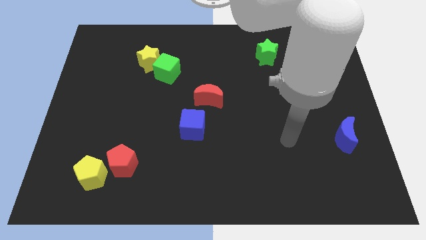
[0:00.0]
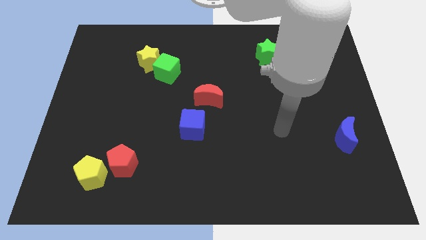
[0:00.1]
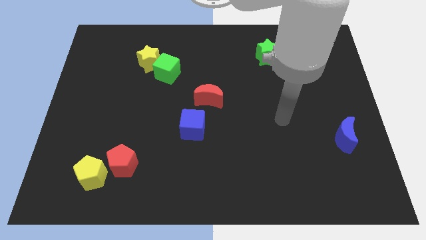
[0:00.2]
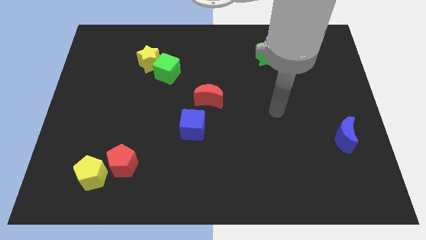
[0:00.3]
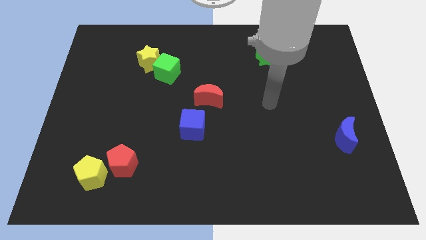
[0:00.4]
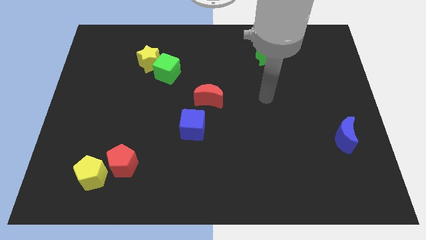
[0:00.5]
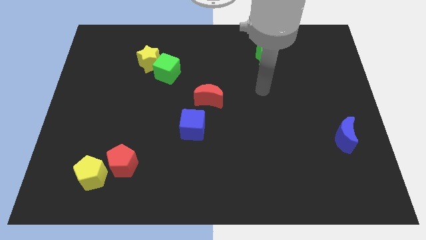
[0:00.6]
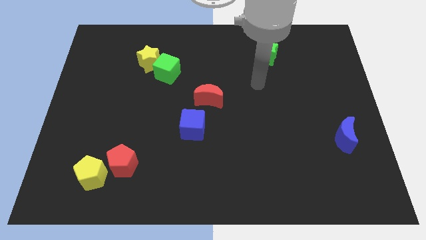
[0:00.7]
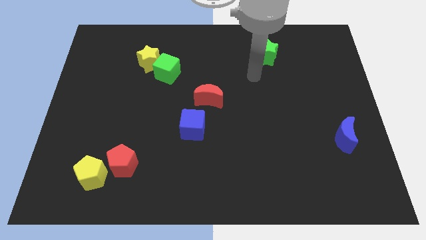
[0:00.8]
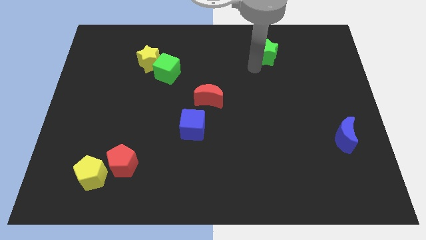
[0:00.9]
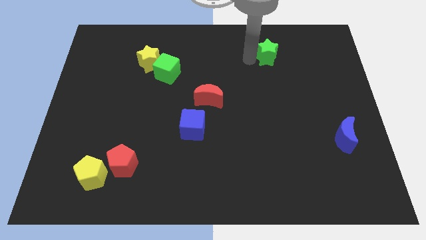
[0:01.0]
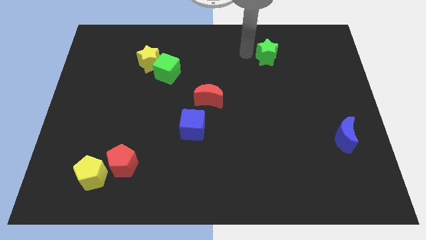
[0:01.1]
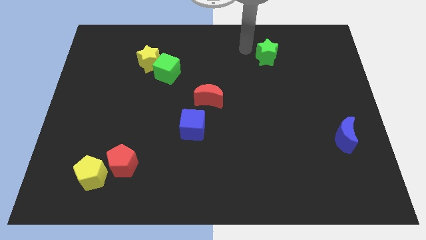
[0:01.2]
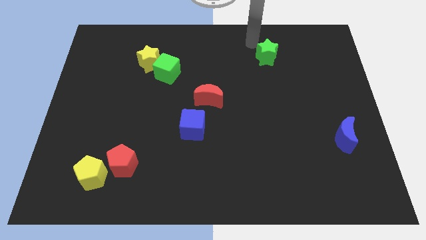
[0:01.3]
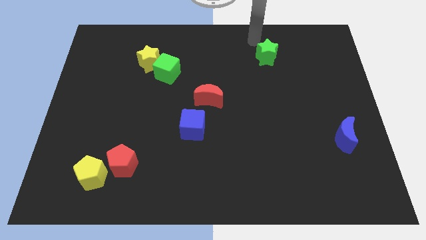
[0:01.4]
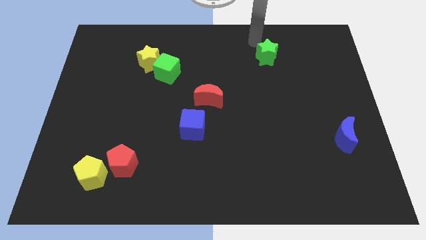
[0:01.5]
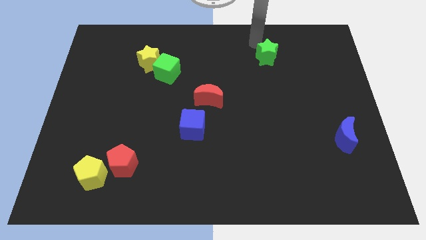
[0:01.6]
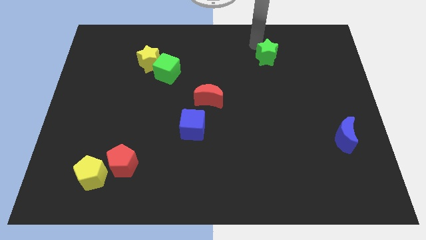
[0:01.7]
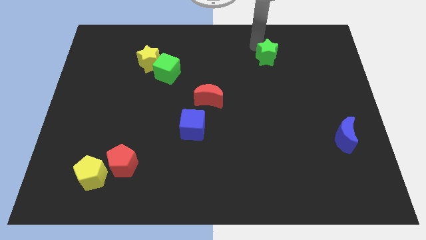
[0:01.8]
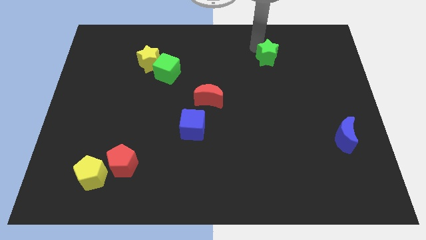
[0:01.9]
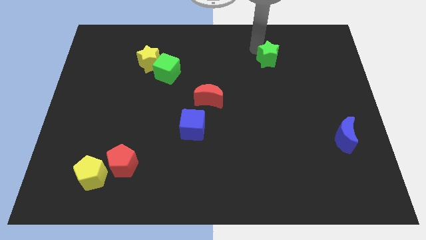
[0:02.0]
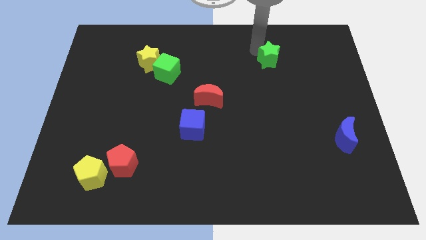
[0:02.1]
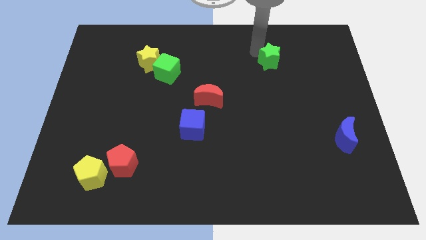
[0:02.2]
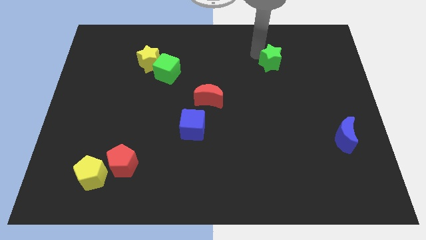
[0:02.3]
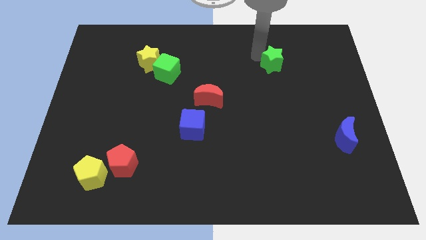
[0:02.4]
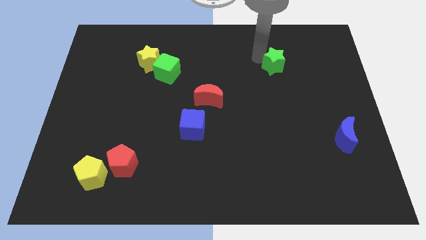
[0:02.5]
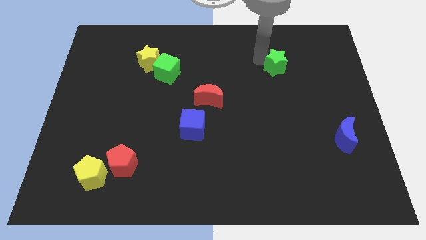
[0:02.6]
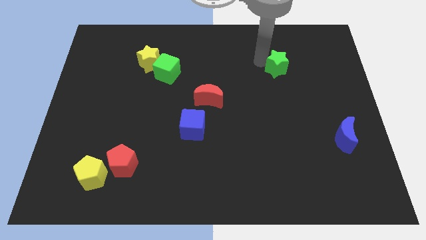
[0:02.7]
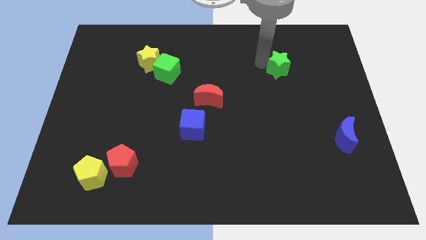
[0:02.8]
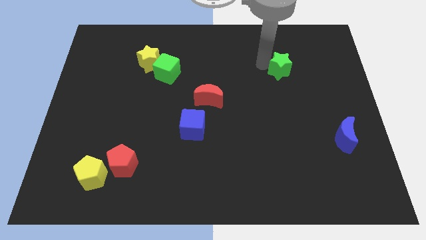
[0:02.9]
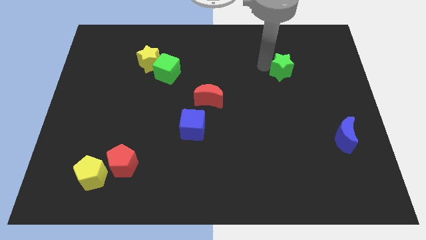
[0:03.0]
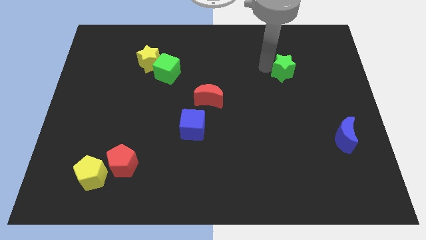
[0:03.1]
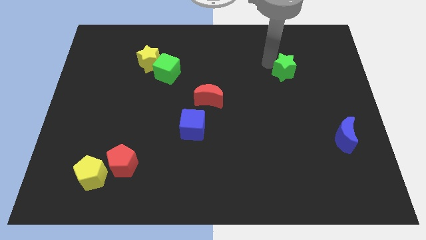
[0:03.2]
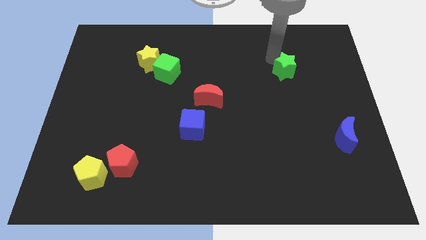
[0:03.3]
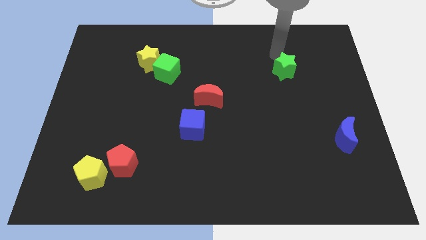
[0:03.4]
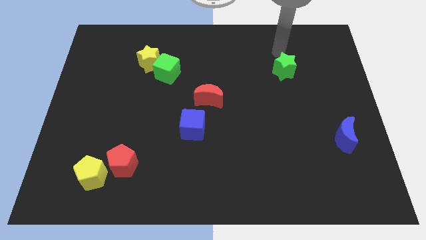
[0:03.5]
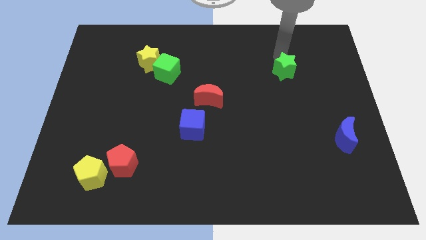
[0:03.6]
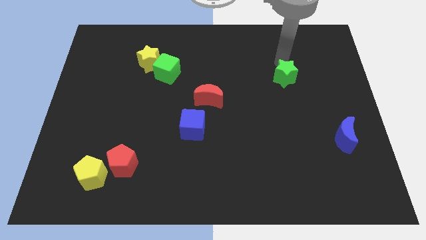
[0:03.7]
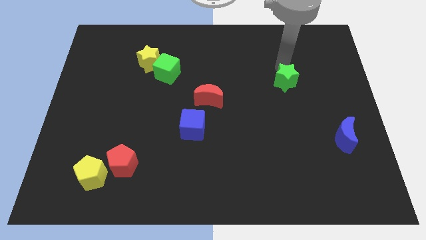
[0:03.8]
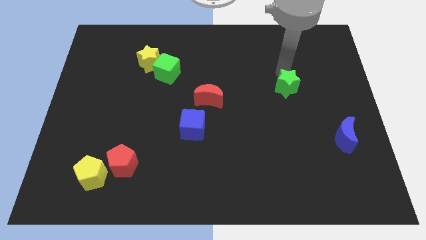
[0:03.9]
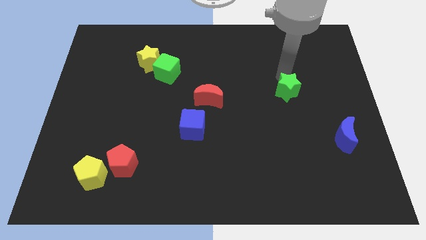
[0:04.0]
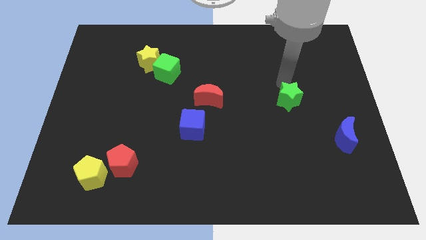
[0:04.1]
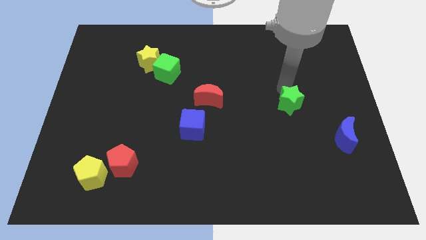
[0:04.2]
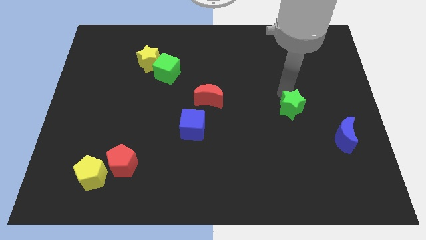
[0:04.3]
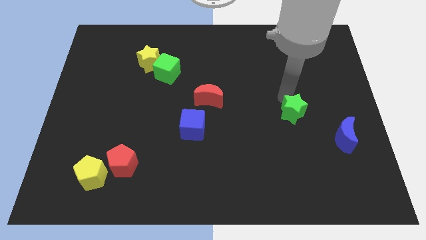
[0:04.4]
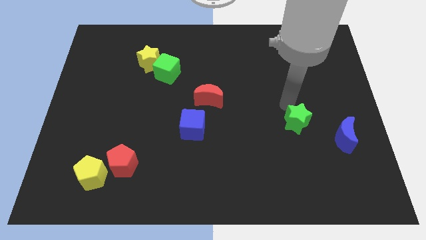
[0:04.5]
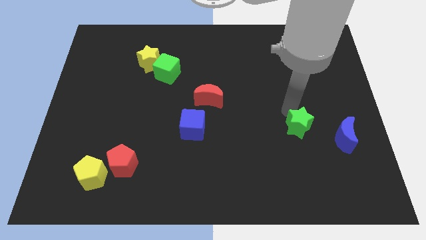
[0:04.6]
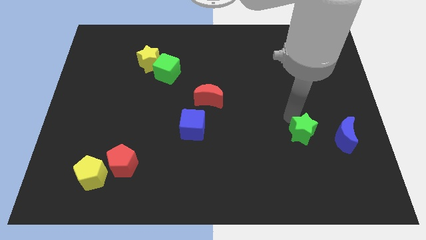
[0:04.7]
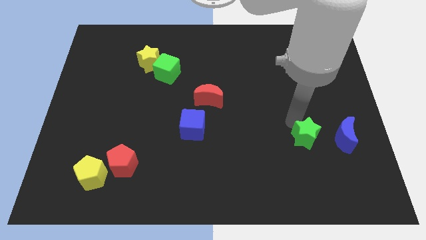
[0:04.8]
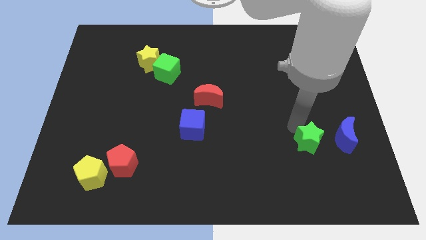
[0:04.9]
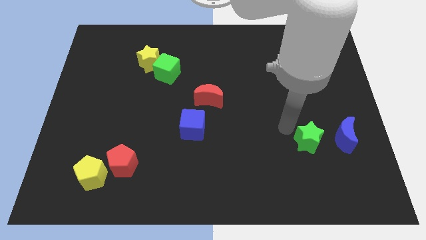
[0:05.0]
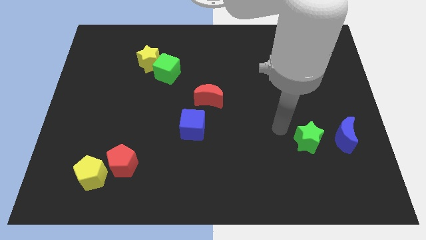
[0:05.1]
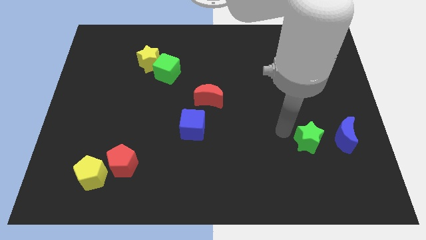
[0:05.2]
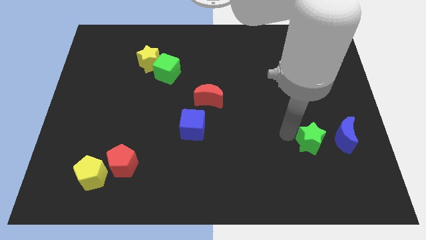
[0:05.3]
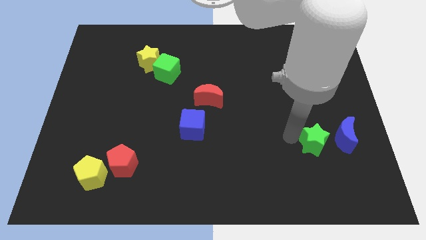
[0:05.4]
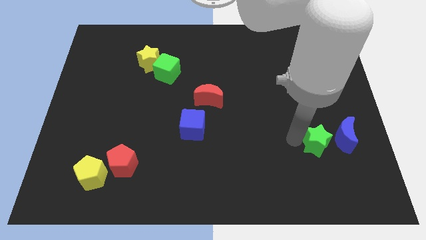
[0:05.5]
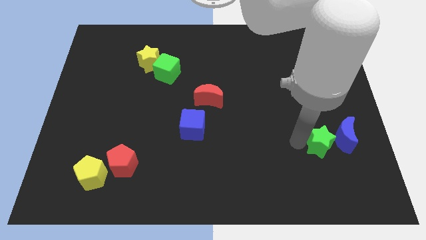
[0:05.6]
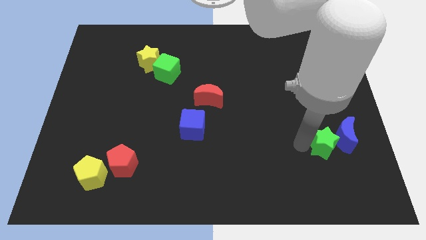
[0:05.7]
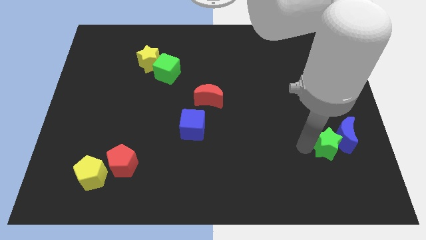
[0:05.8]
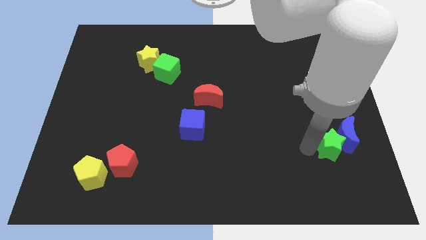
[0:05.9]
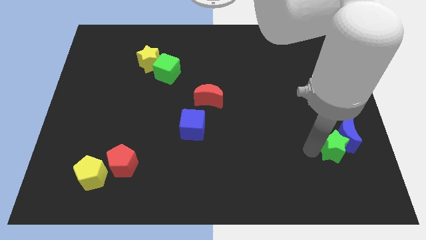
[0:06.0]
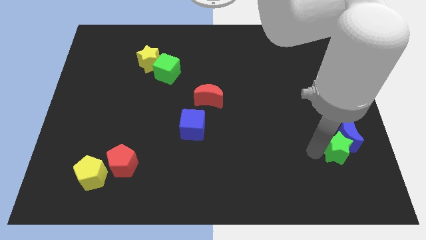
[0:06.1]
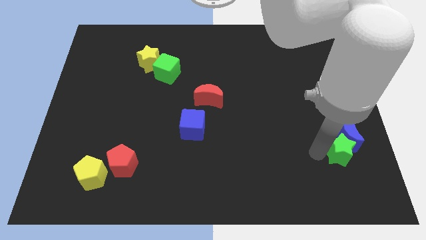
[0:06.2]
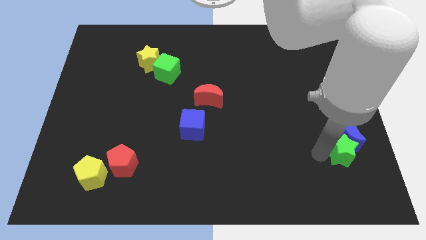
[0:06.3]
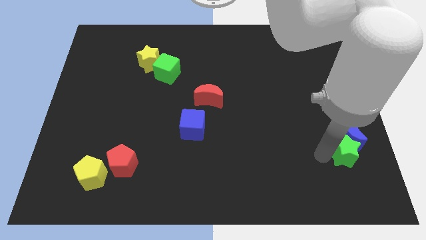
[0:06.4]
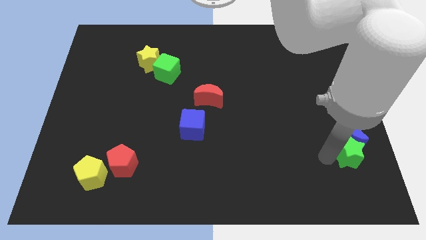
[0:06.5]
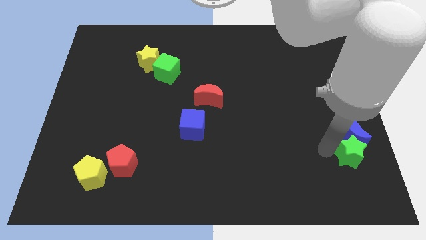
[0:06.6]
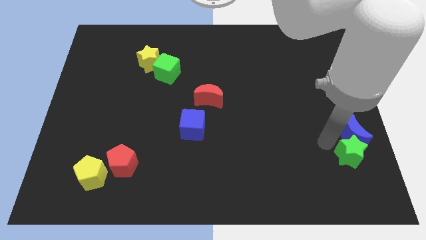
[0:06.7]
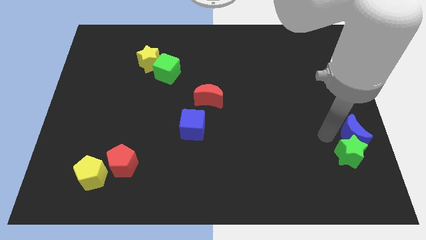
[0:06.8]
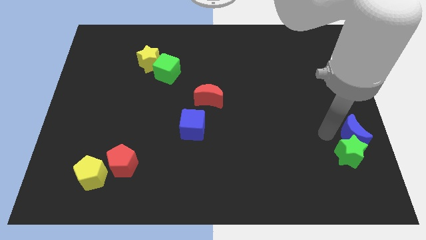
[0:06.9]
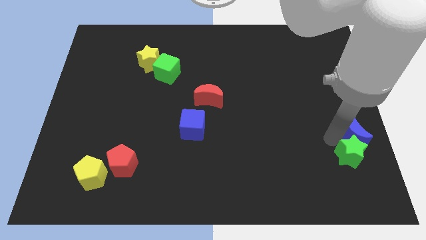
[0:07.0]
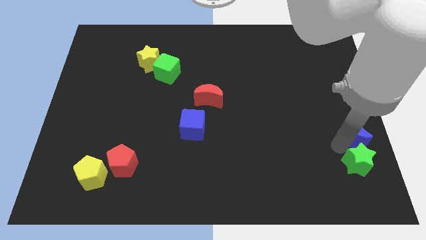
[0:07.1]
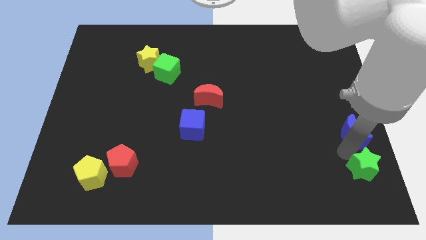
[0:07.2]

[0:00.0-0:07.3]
push the green star to the lower right corner
